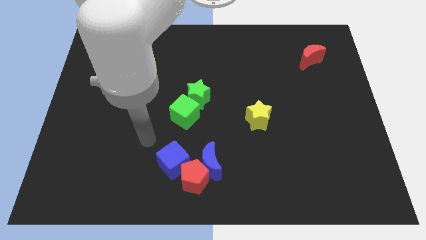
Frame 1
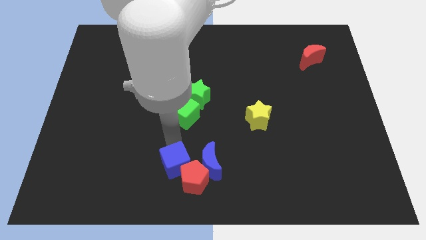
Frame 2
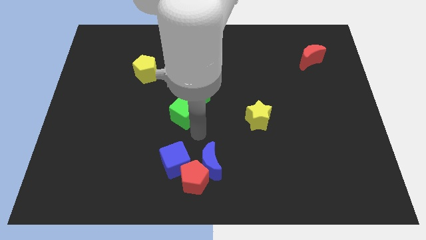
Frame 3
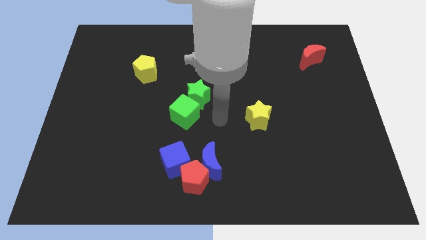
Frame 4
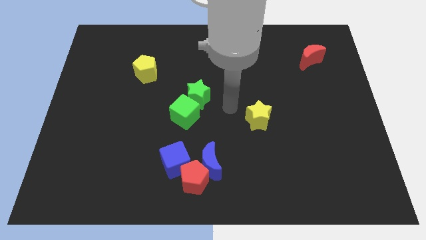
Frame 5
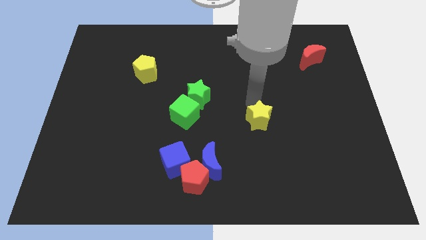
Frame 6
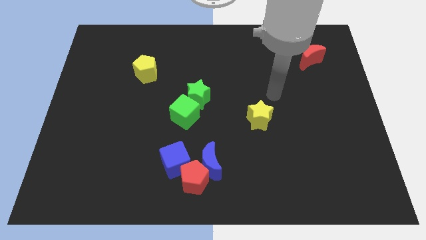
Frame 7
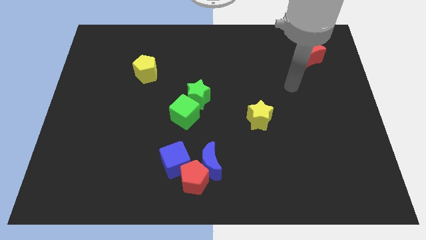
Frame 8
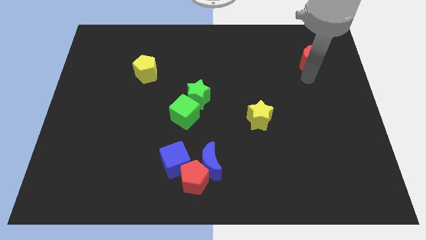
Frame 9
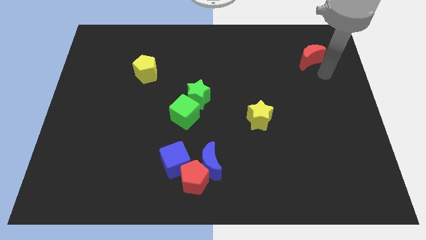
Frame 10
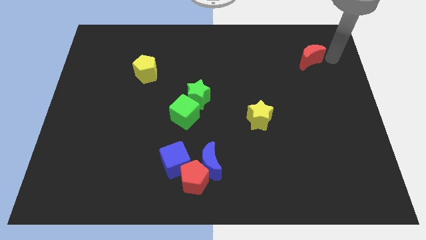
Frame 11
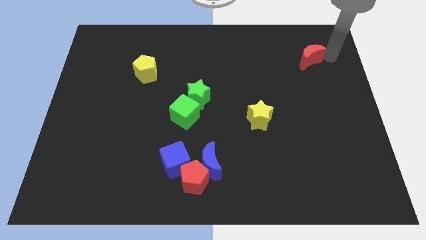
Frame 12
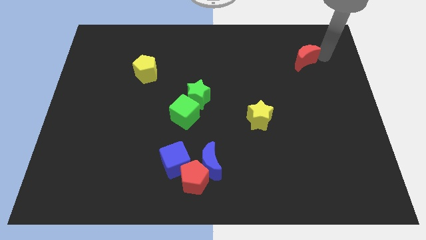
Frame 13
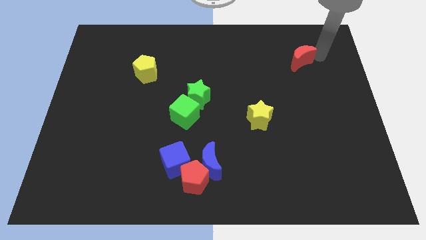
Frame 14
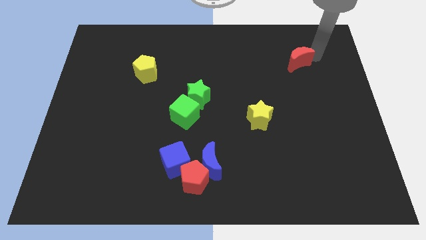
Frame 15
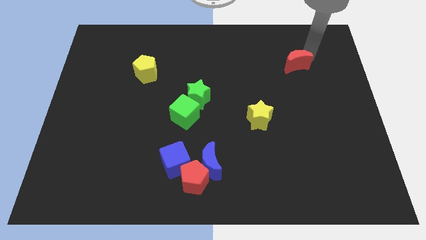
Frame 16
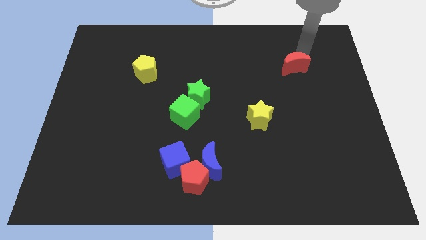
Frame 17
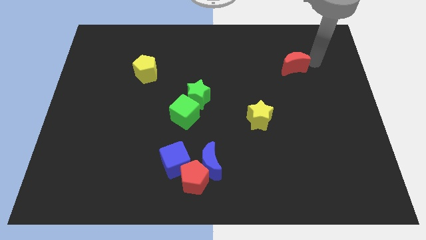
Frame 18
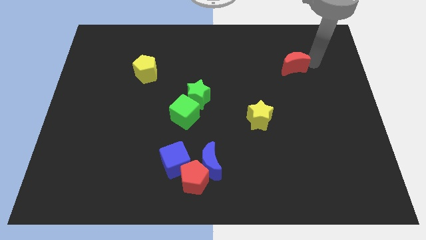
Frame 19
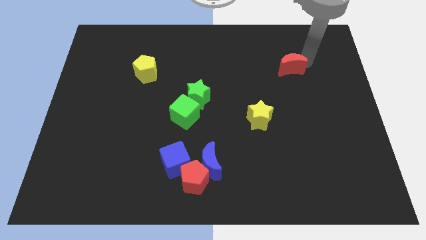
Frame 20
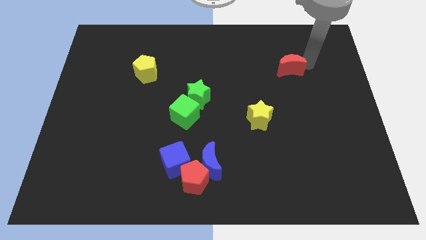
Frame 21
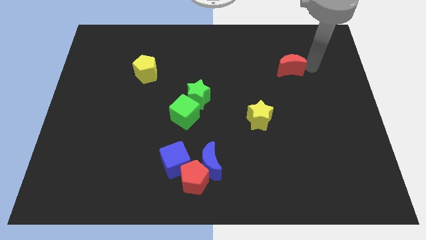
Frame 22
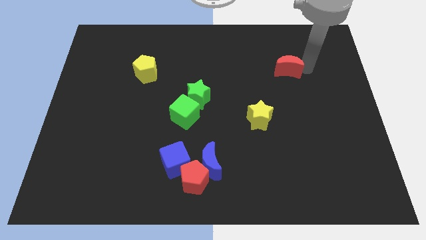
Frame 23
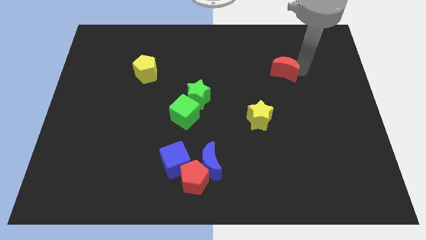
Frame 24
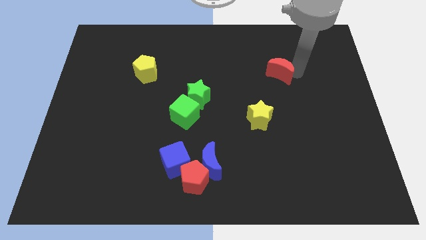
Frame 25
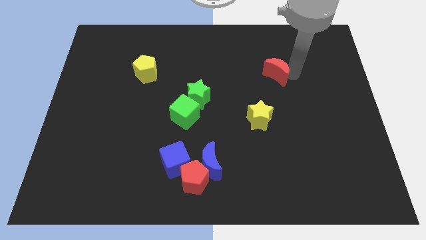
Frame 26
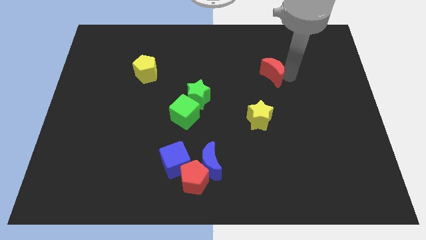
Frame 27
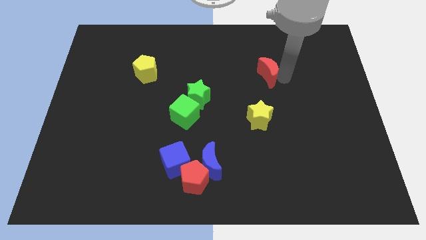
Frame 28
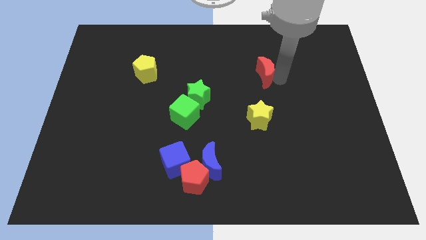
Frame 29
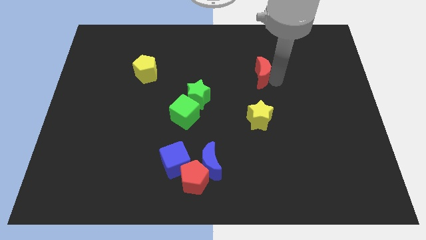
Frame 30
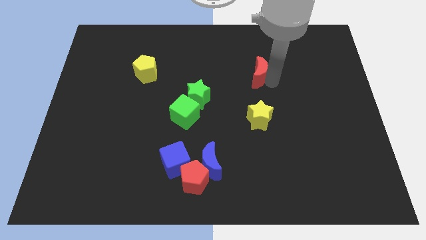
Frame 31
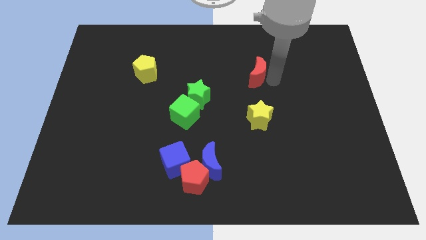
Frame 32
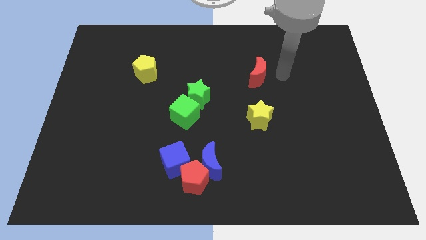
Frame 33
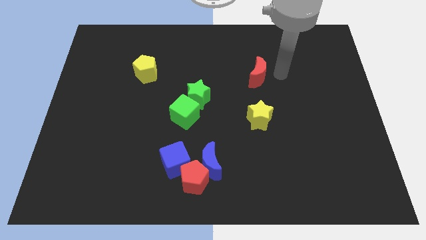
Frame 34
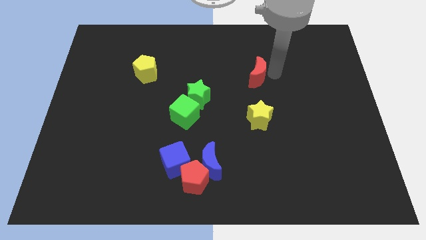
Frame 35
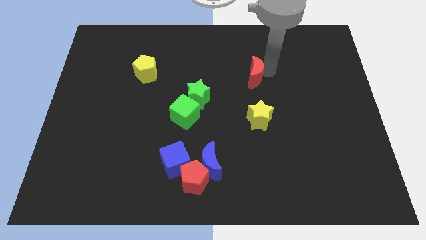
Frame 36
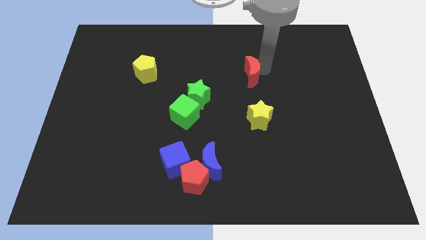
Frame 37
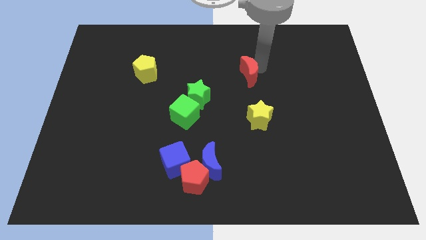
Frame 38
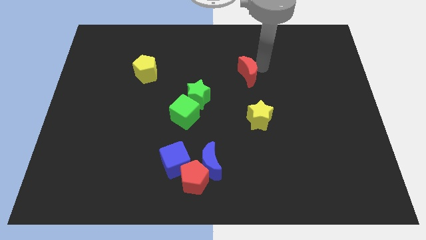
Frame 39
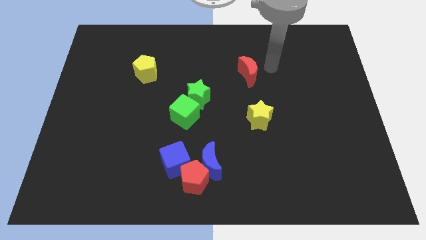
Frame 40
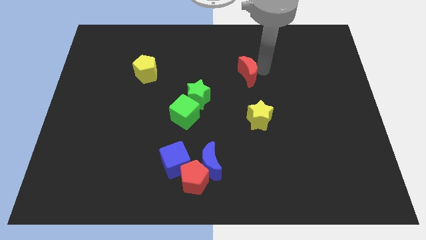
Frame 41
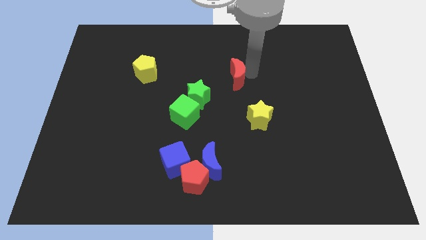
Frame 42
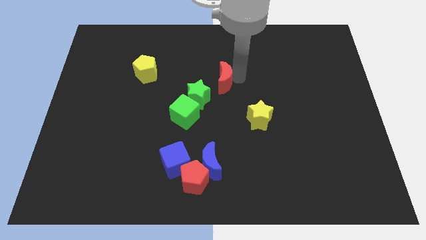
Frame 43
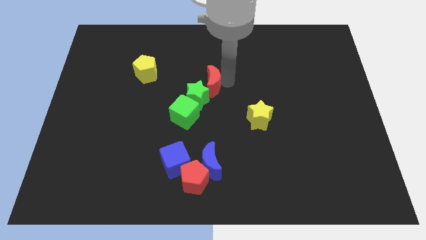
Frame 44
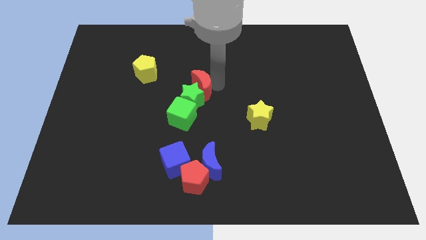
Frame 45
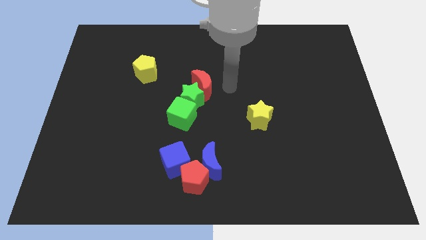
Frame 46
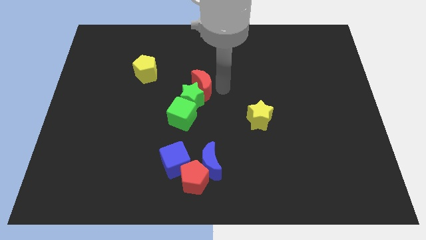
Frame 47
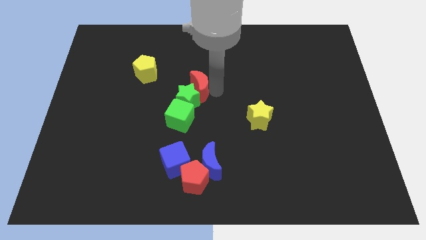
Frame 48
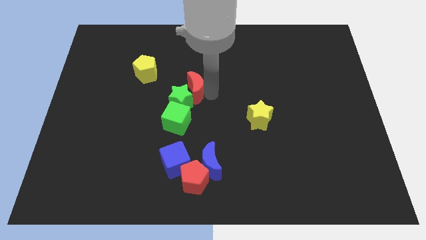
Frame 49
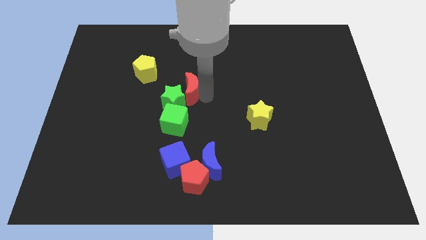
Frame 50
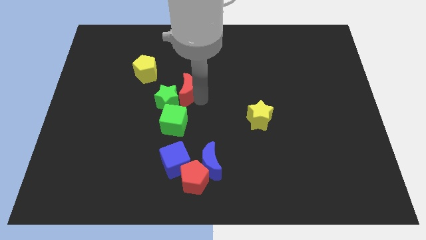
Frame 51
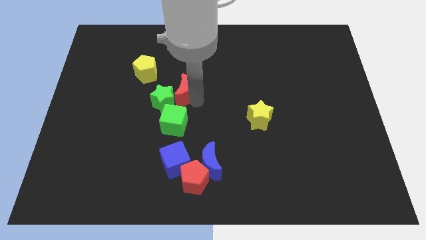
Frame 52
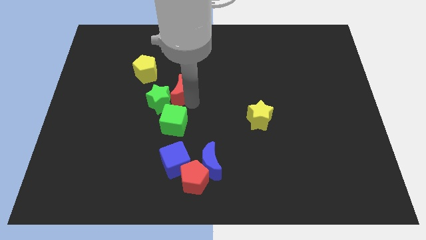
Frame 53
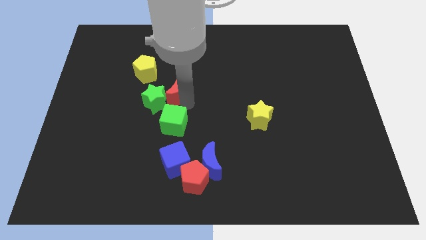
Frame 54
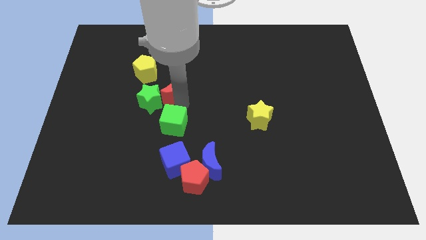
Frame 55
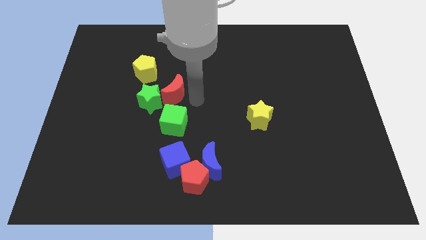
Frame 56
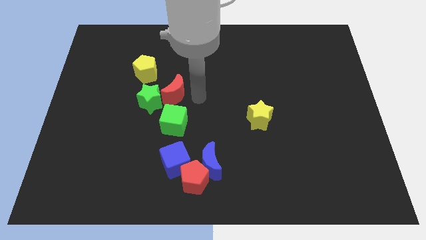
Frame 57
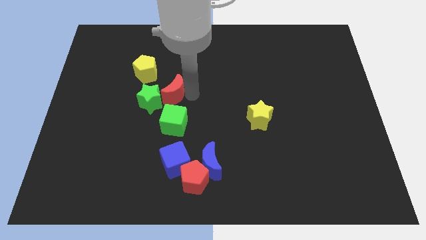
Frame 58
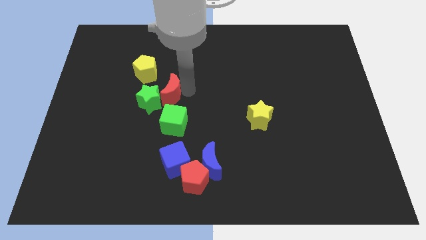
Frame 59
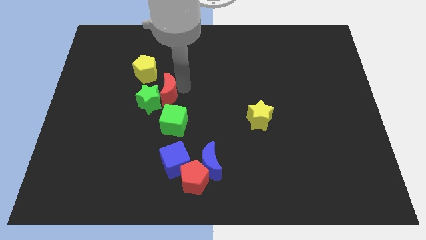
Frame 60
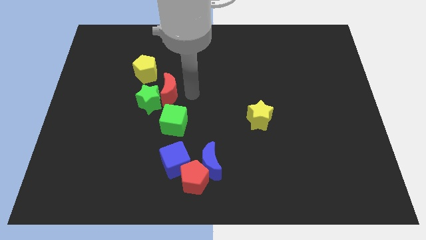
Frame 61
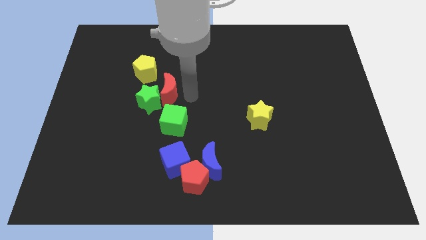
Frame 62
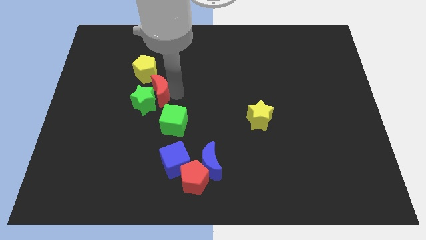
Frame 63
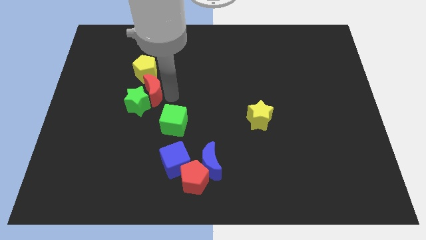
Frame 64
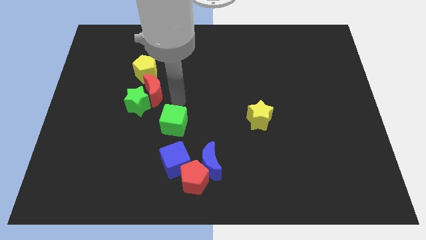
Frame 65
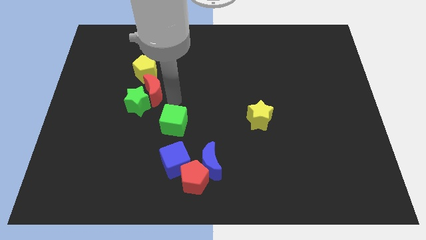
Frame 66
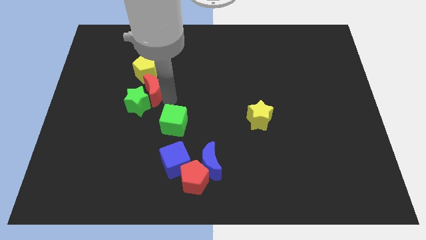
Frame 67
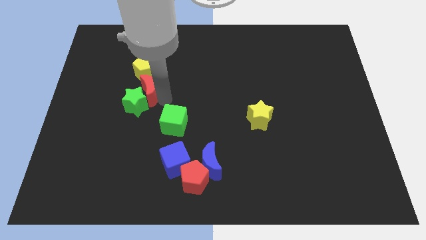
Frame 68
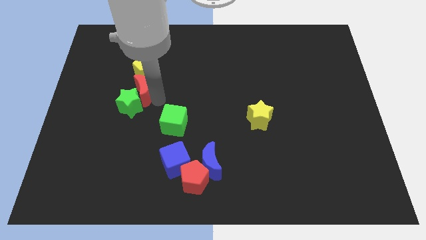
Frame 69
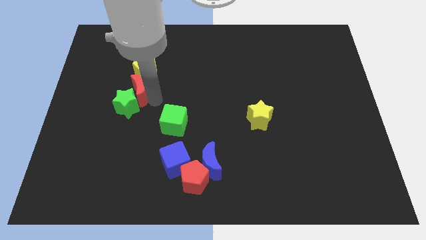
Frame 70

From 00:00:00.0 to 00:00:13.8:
move the red moon to the bottom left of the yellow pentagon
